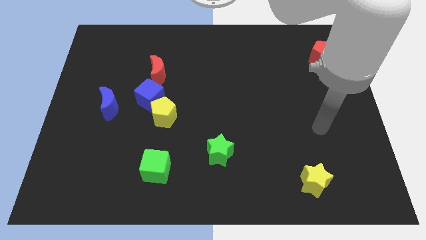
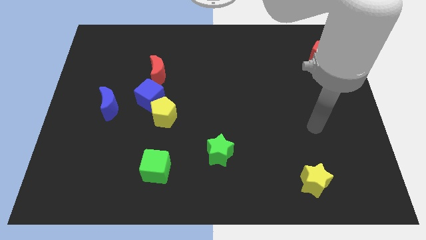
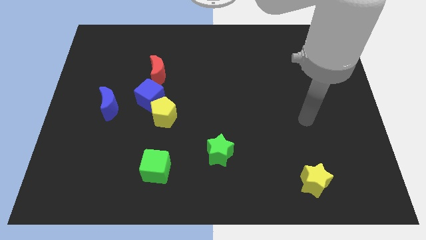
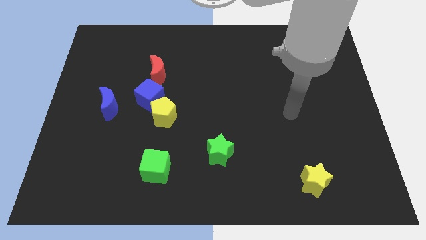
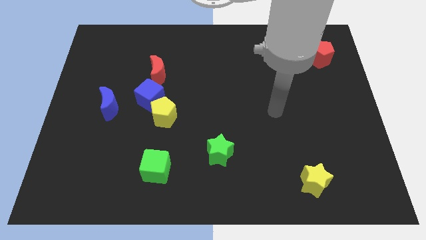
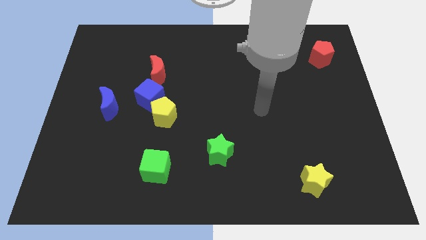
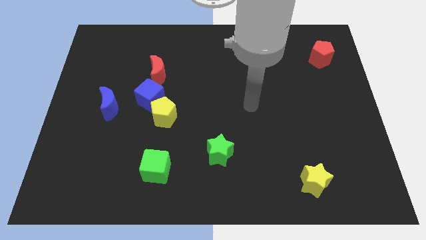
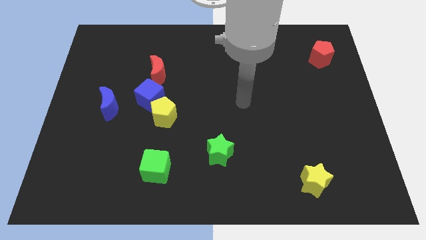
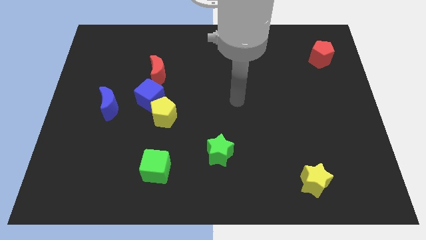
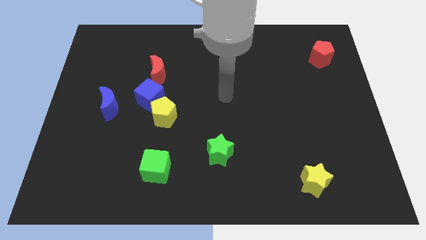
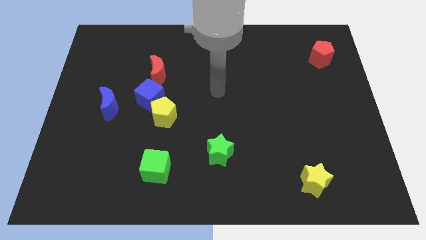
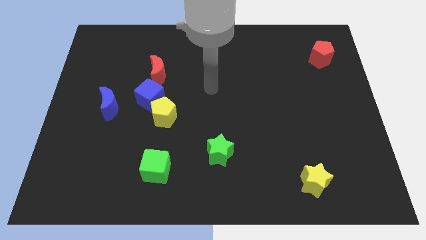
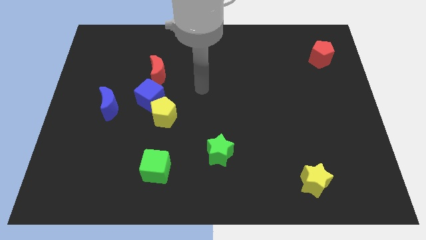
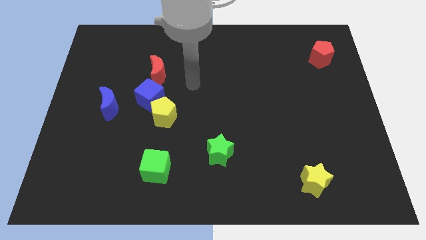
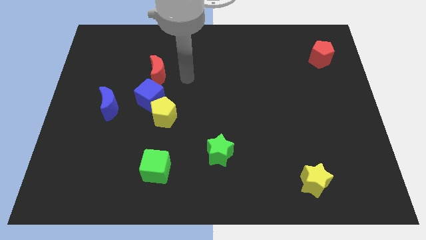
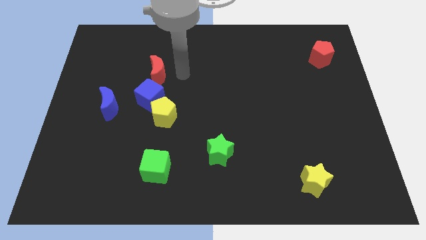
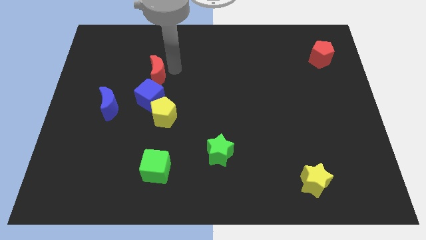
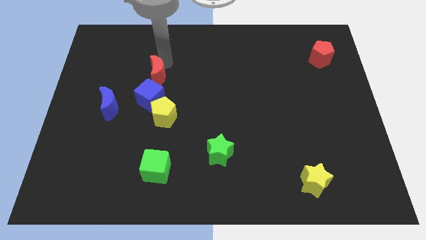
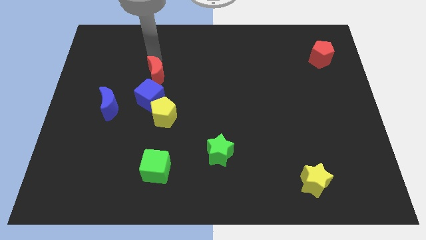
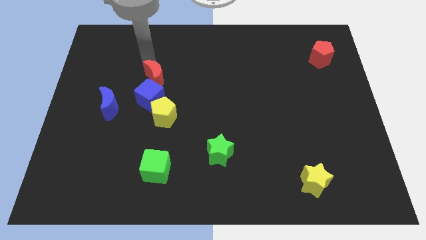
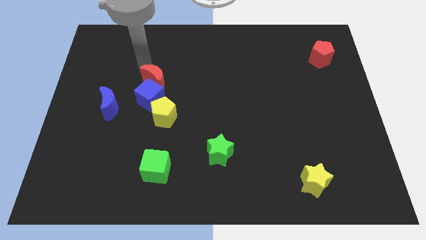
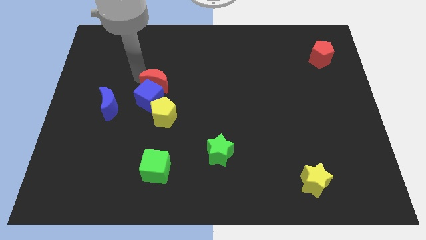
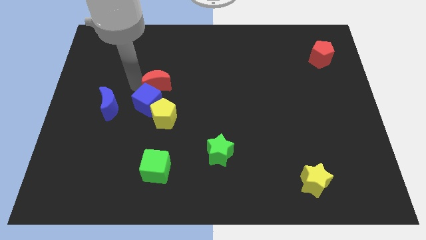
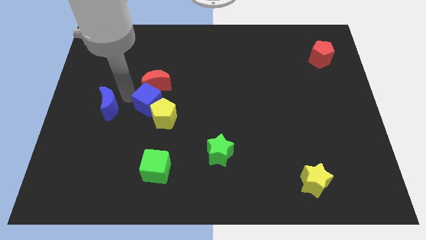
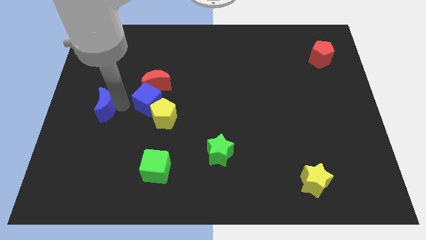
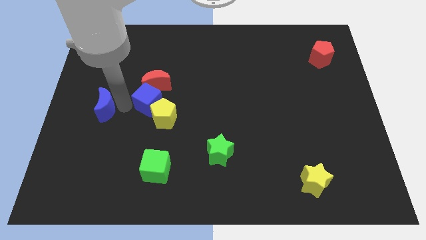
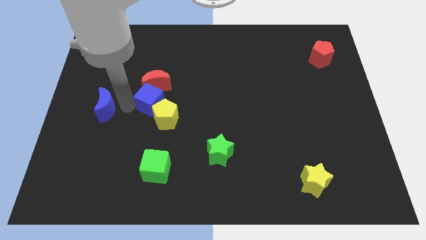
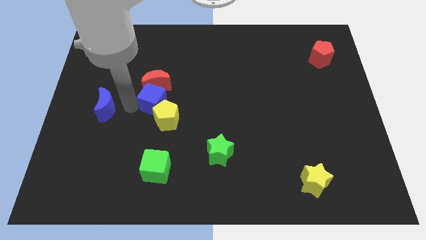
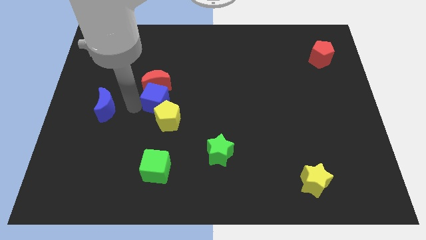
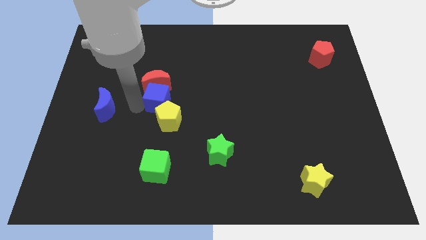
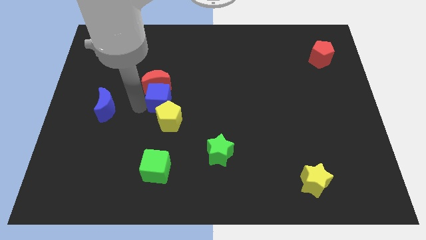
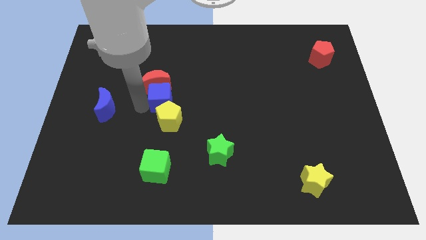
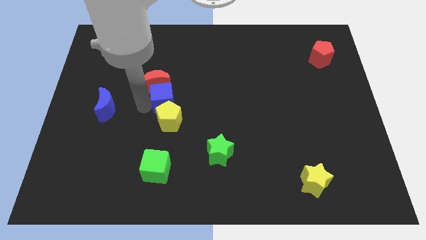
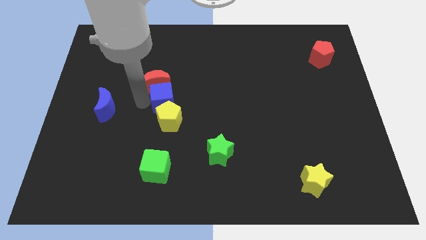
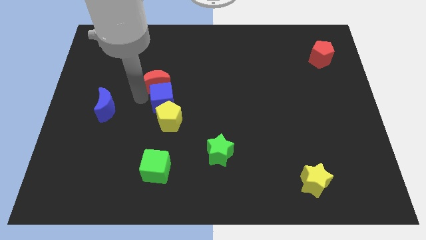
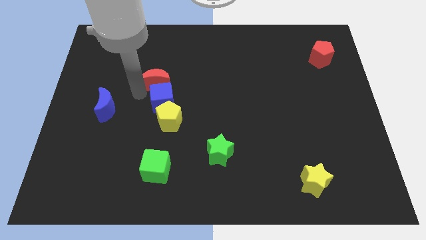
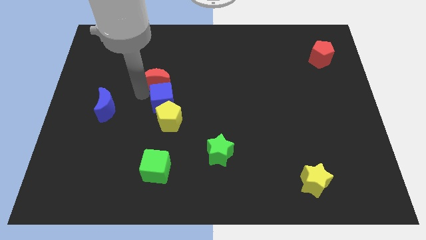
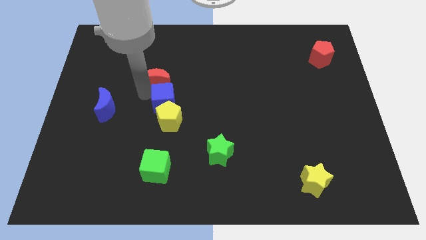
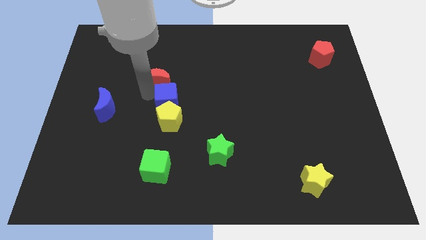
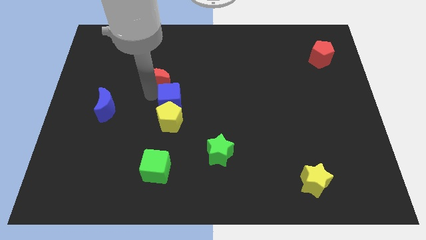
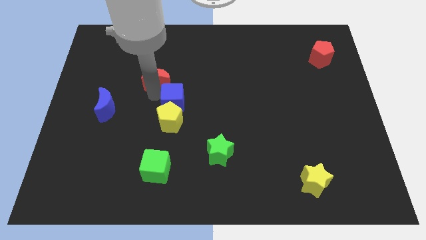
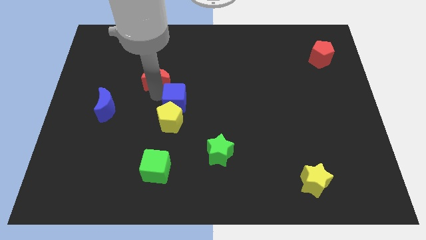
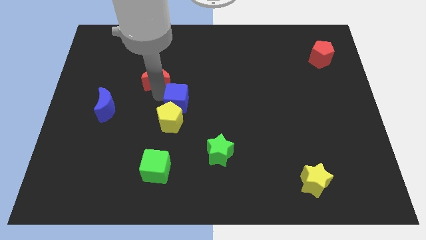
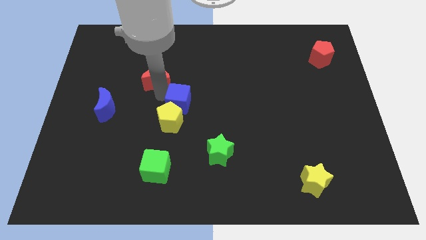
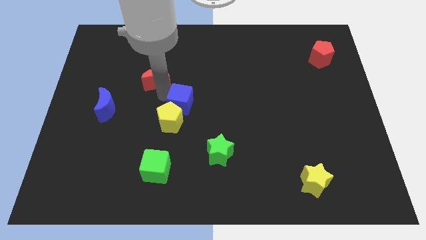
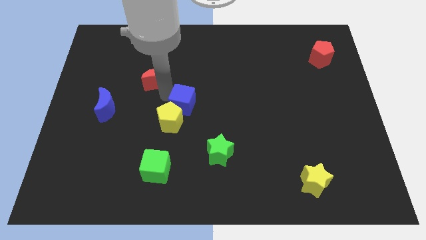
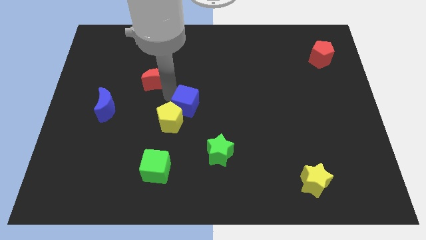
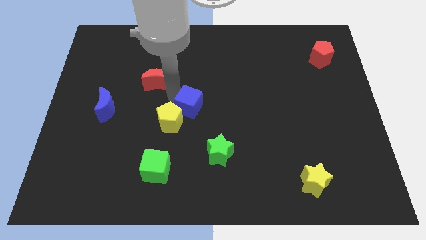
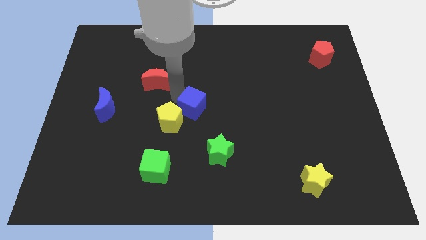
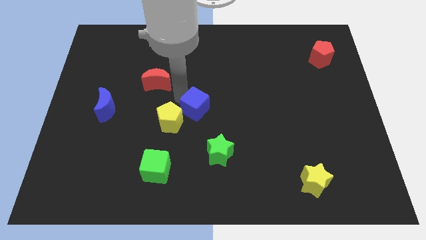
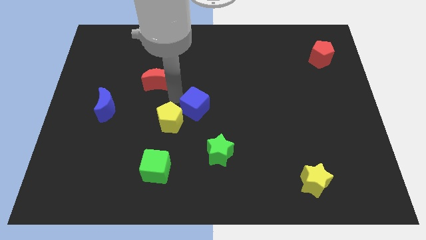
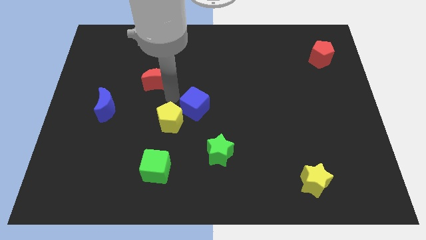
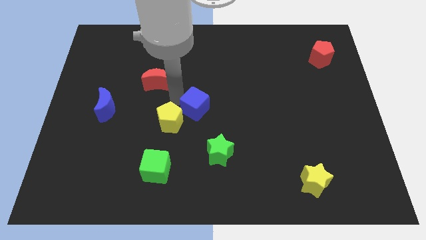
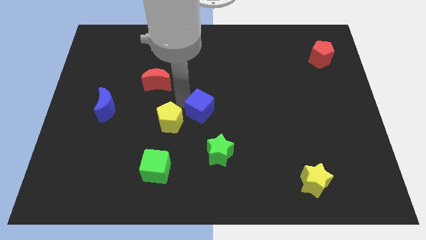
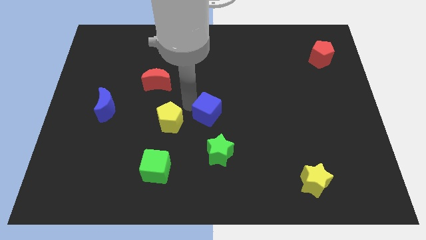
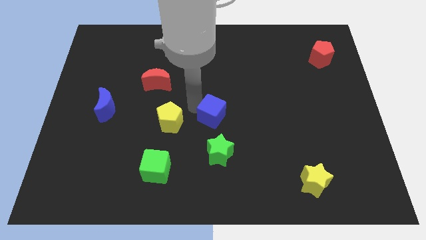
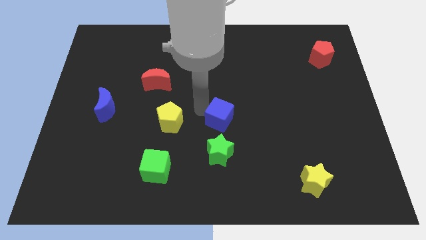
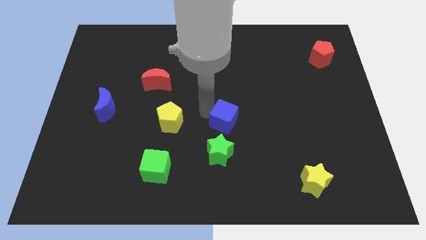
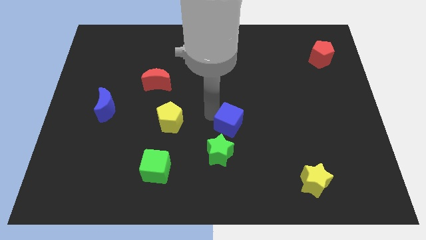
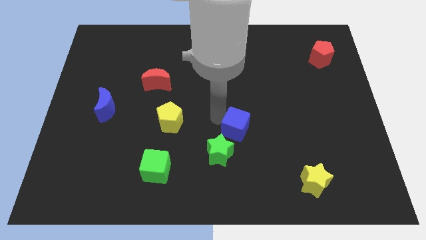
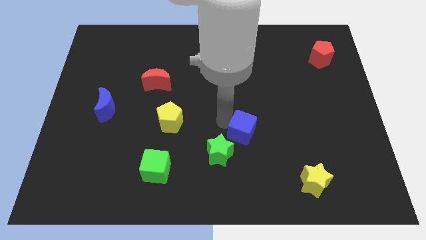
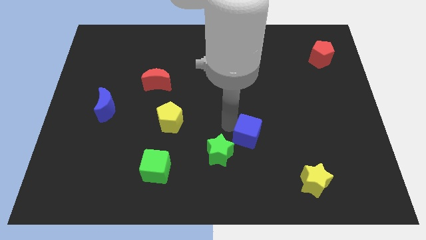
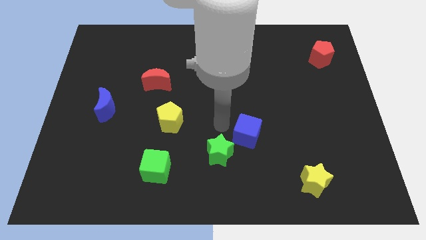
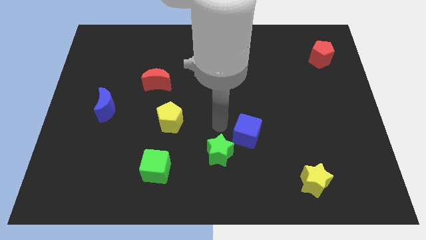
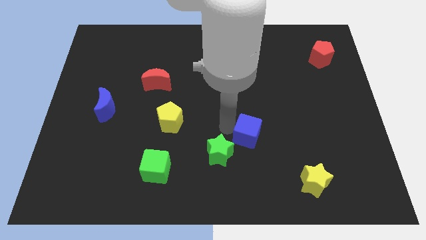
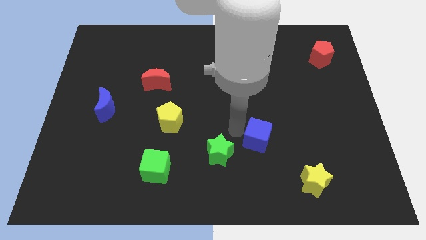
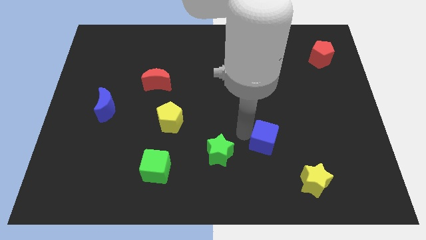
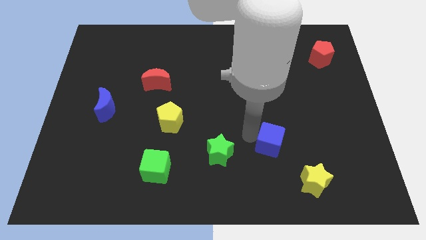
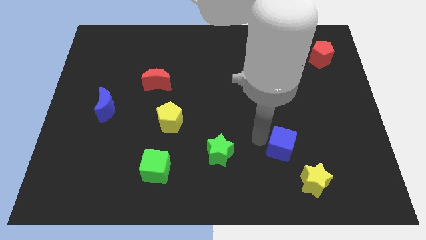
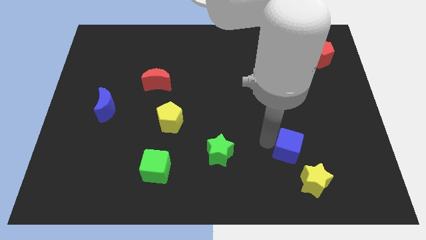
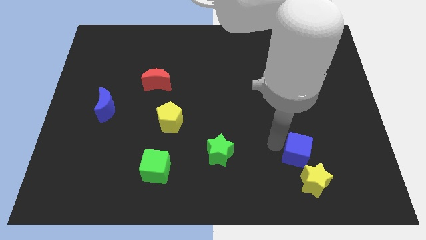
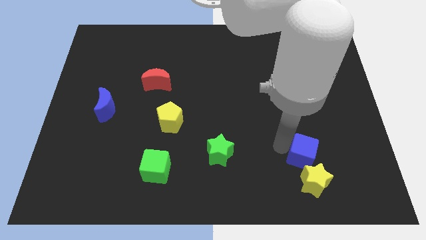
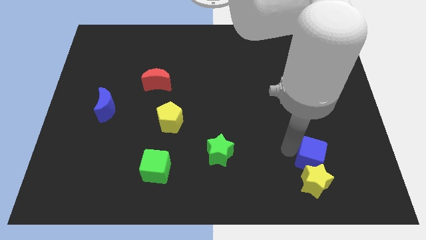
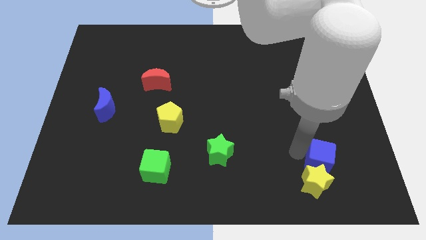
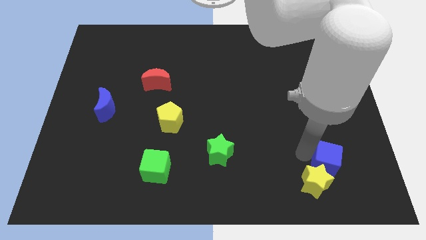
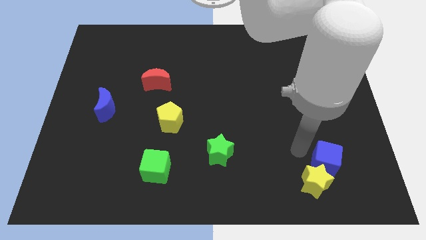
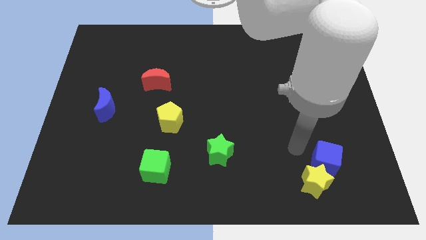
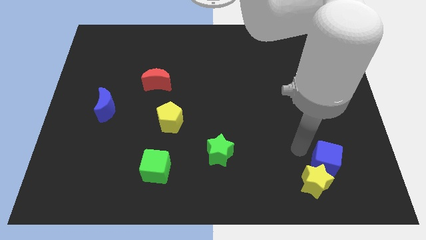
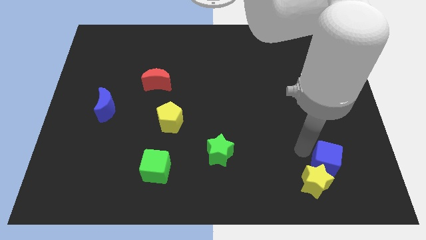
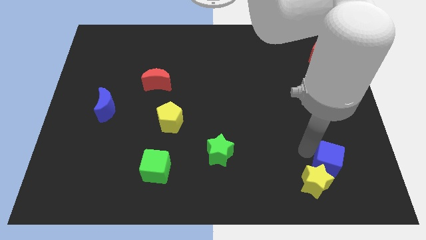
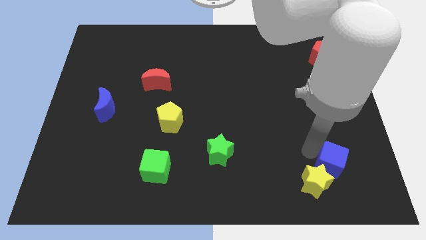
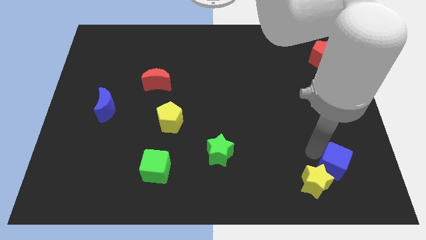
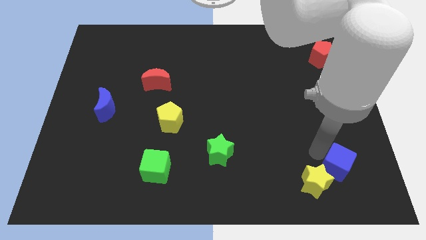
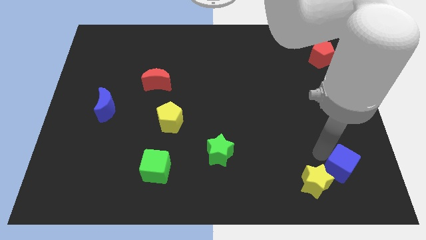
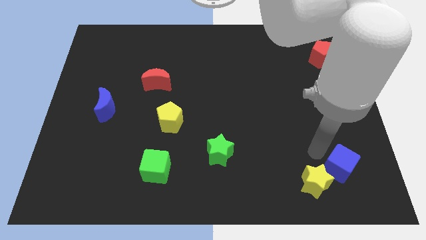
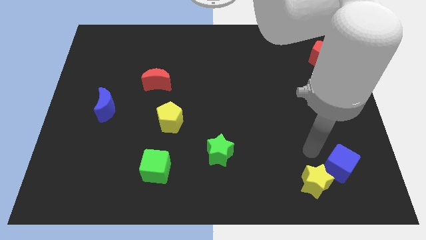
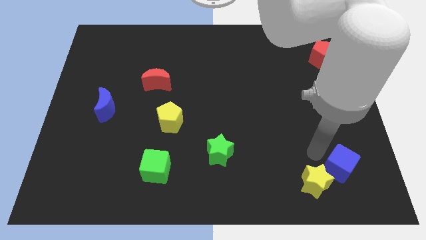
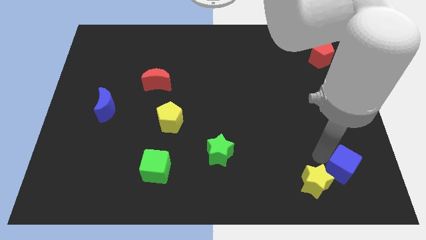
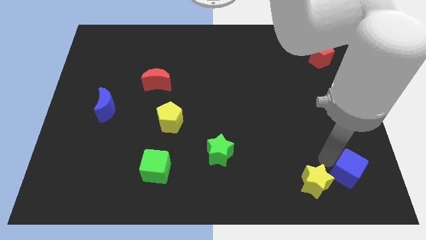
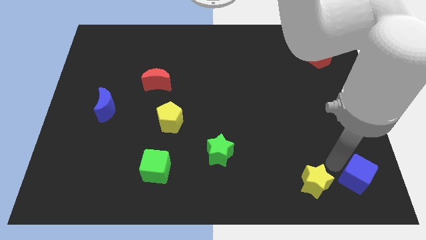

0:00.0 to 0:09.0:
slide the blue cube to the bottom right of the board
